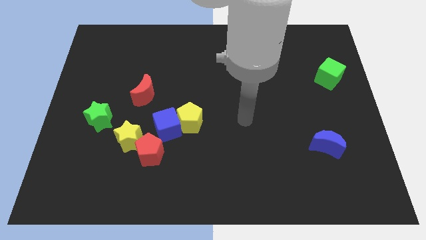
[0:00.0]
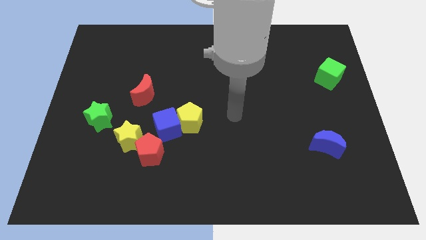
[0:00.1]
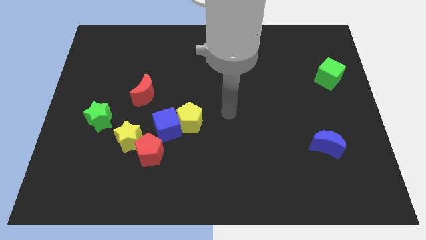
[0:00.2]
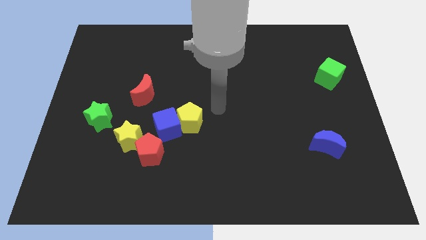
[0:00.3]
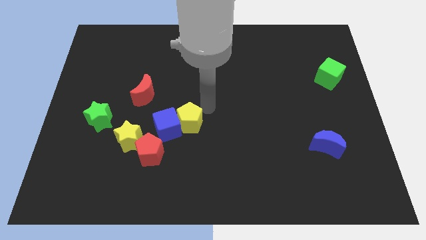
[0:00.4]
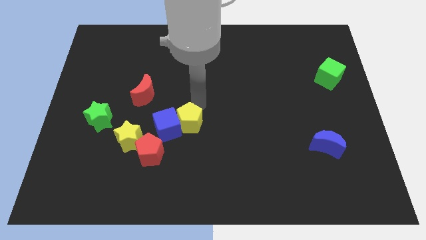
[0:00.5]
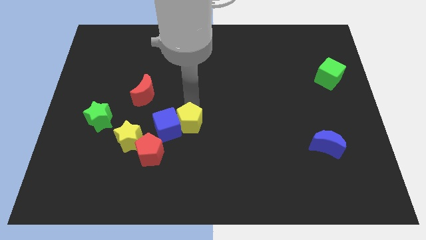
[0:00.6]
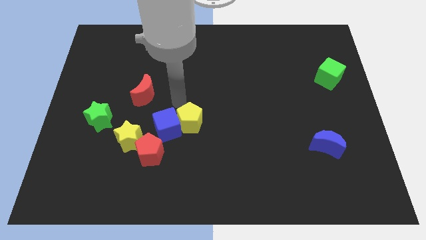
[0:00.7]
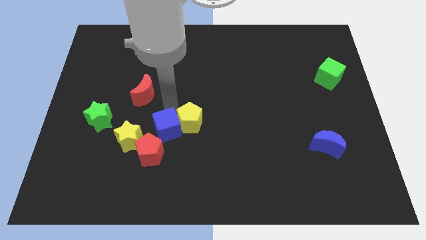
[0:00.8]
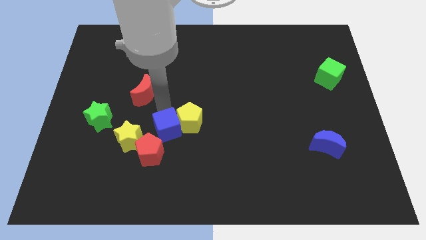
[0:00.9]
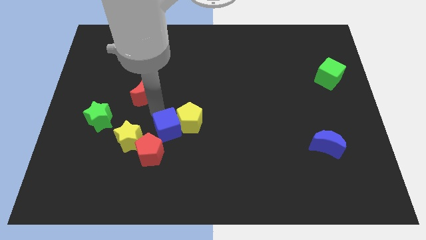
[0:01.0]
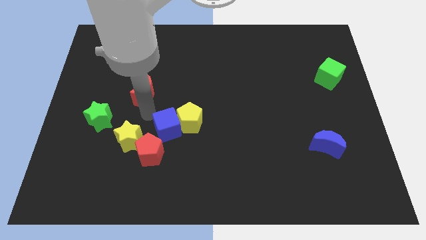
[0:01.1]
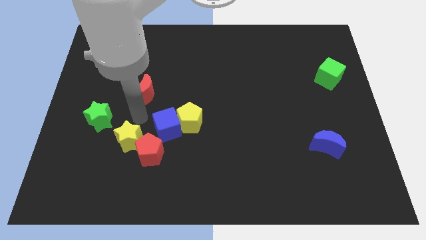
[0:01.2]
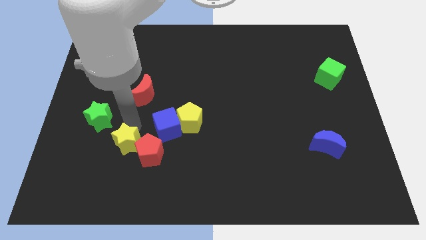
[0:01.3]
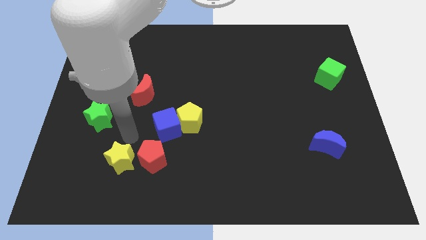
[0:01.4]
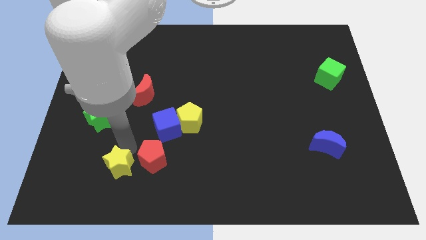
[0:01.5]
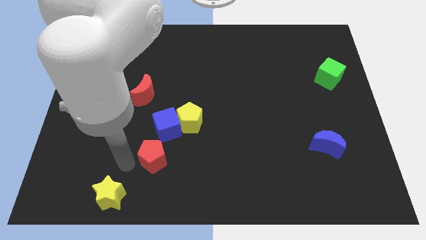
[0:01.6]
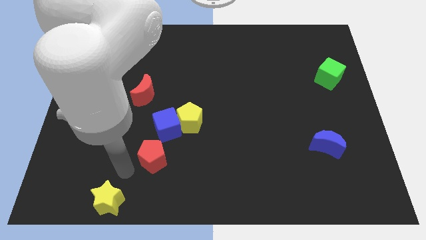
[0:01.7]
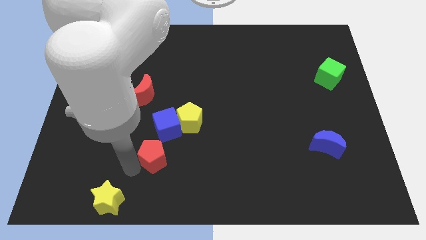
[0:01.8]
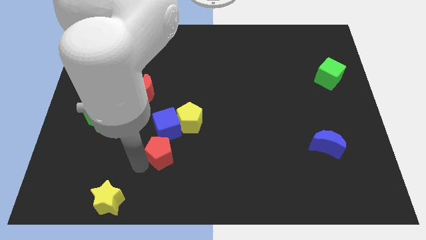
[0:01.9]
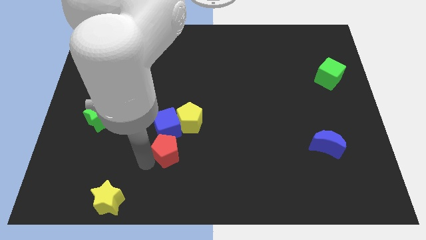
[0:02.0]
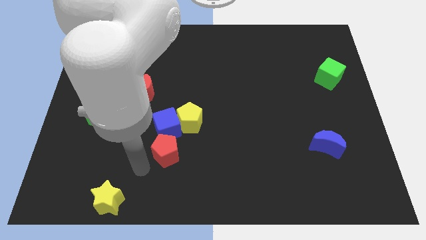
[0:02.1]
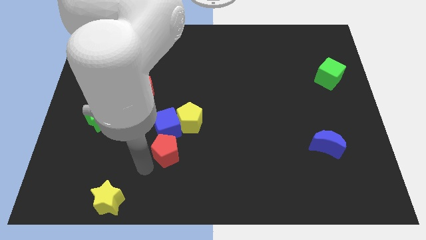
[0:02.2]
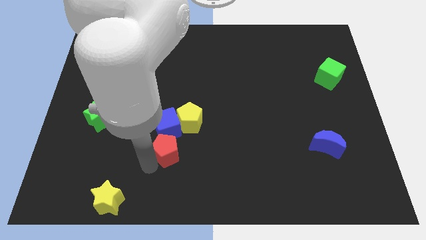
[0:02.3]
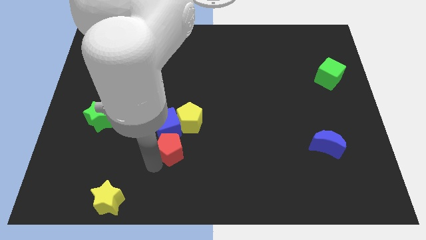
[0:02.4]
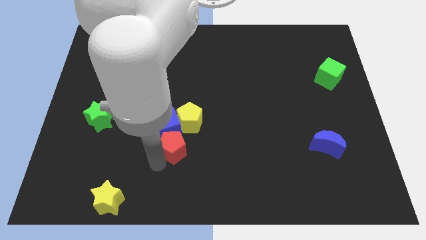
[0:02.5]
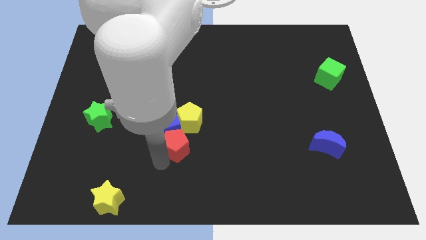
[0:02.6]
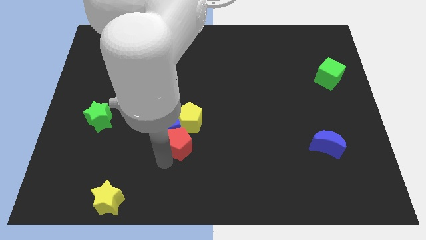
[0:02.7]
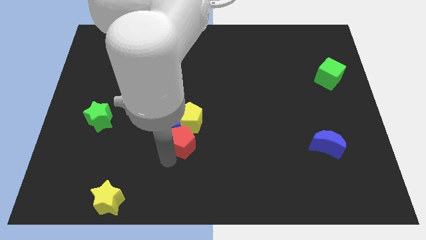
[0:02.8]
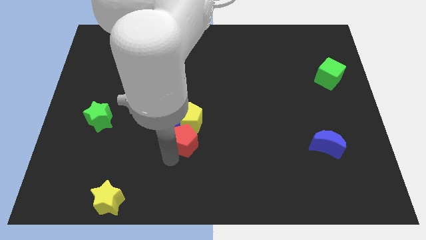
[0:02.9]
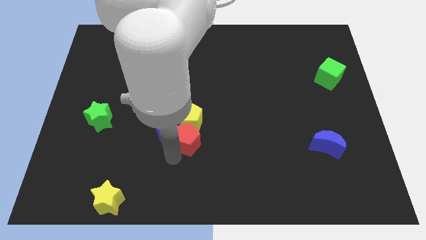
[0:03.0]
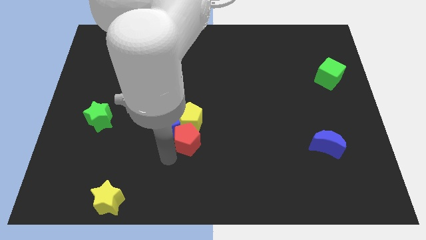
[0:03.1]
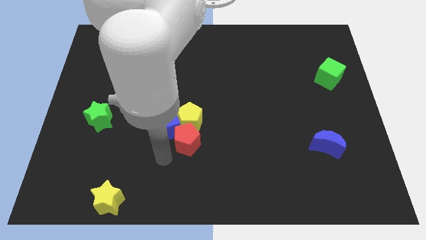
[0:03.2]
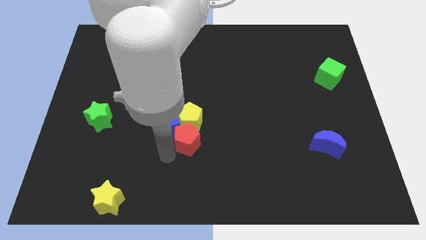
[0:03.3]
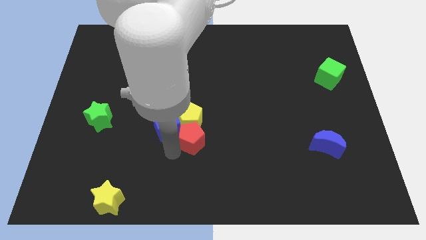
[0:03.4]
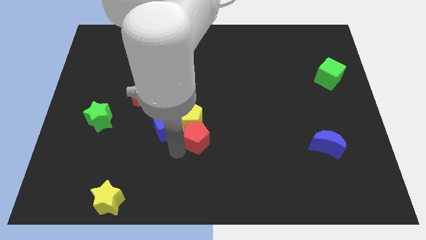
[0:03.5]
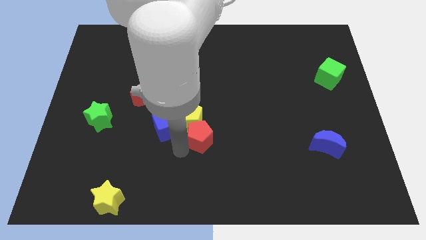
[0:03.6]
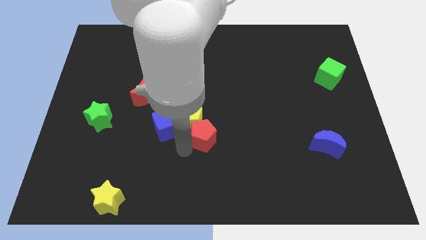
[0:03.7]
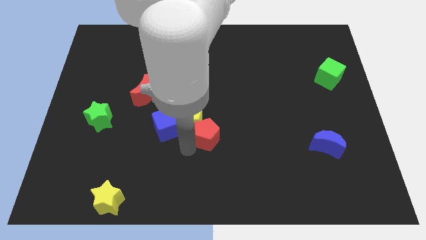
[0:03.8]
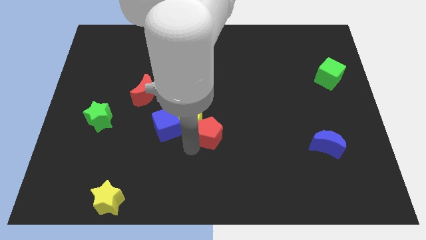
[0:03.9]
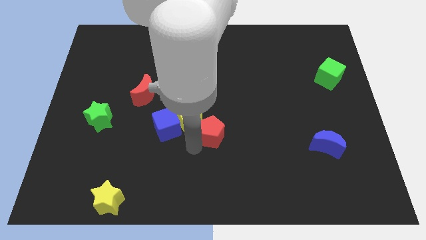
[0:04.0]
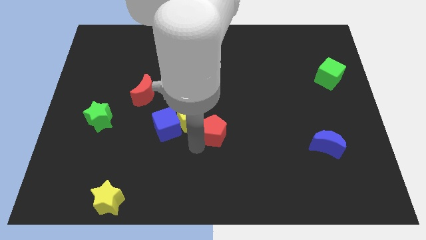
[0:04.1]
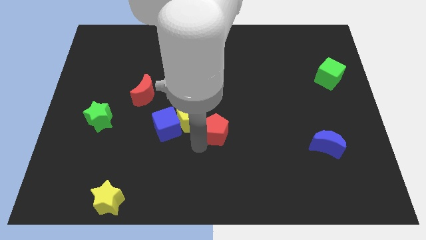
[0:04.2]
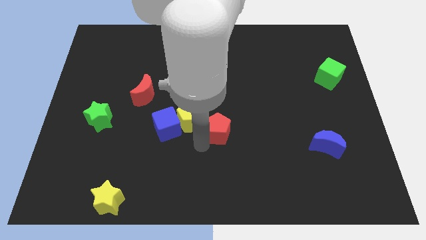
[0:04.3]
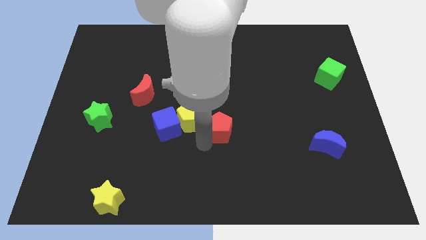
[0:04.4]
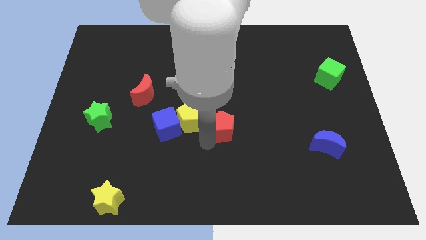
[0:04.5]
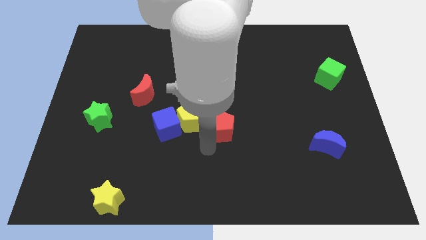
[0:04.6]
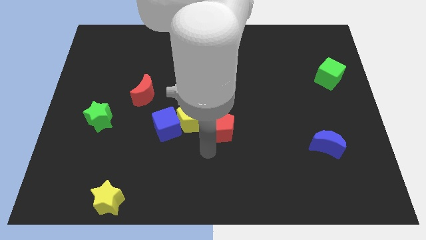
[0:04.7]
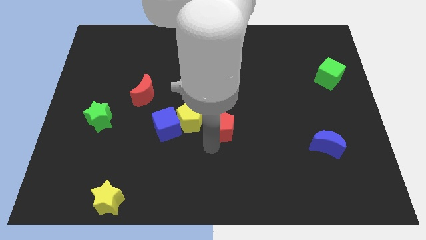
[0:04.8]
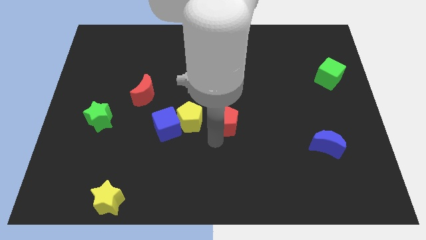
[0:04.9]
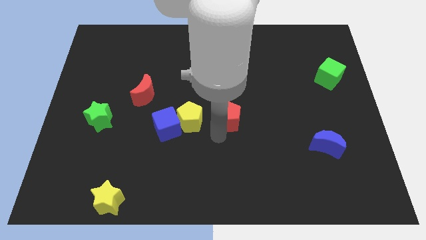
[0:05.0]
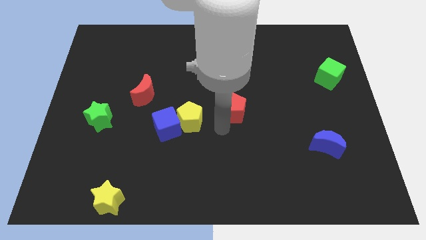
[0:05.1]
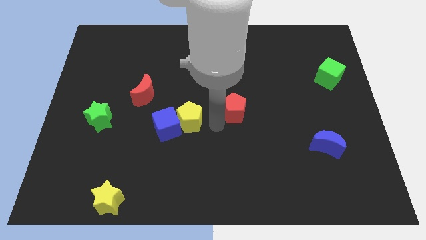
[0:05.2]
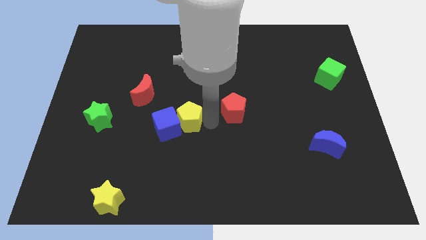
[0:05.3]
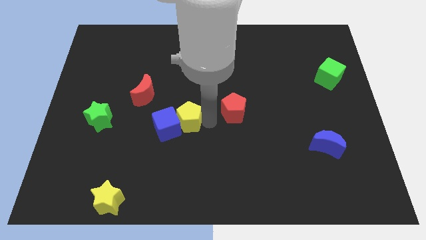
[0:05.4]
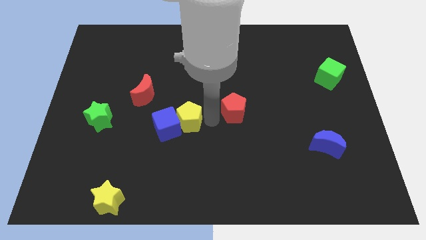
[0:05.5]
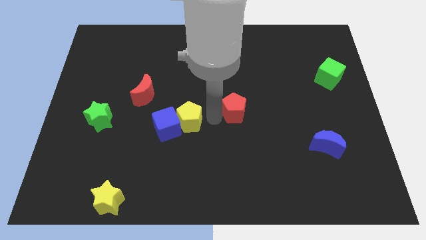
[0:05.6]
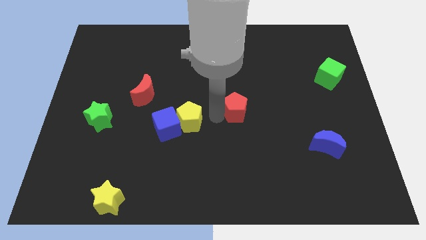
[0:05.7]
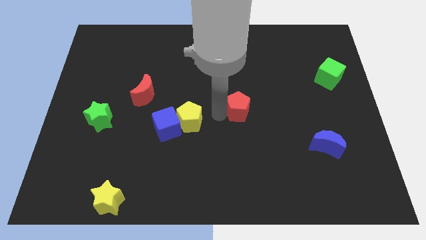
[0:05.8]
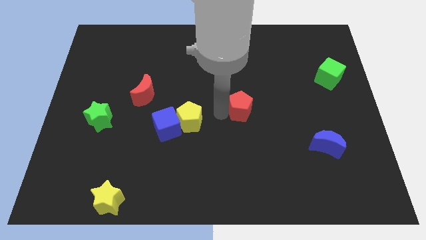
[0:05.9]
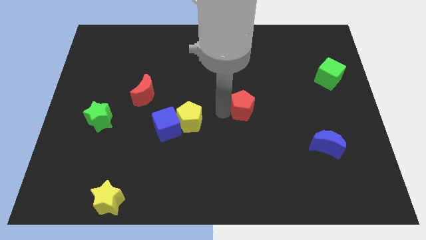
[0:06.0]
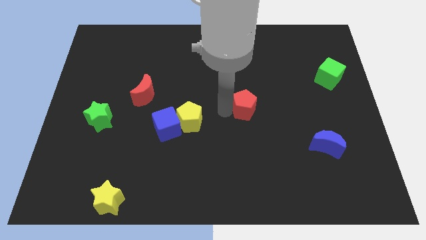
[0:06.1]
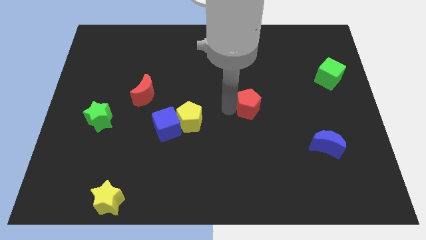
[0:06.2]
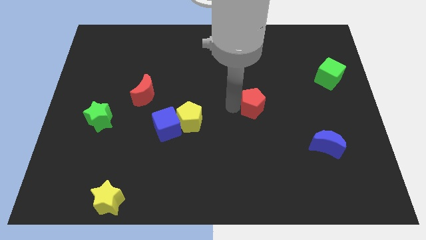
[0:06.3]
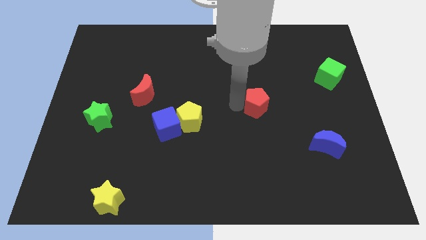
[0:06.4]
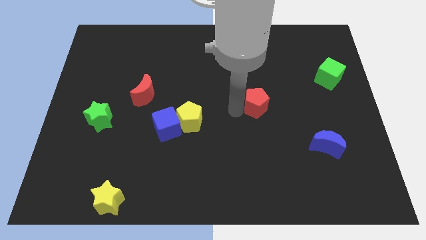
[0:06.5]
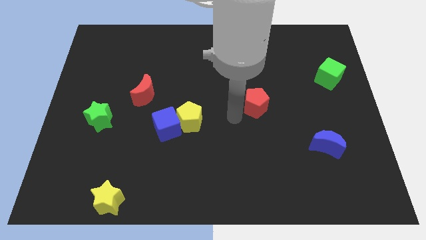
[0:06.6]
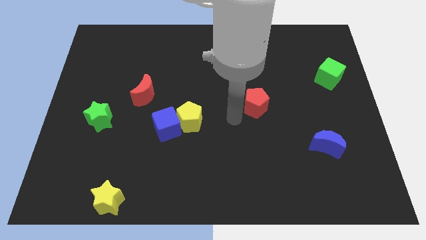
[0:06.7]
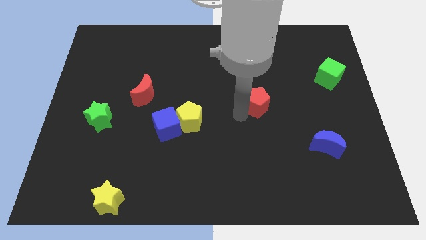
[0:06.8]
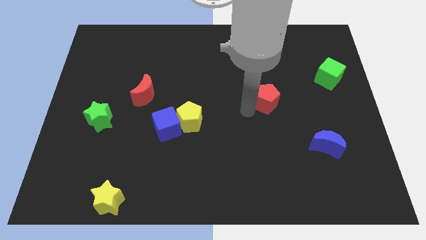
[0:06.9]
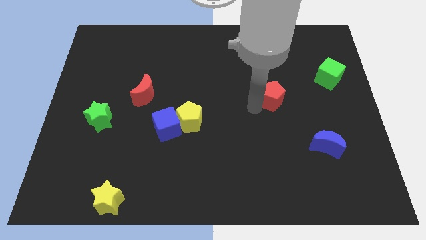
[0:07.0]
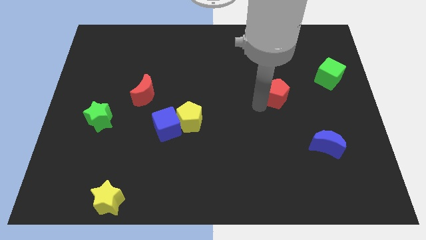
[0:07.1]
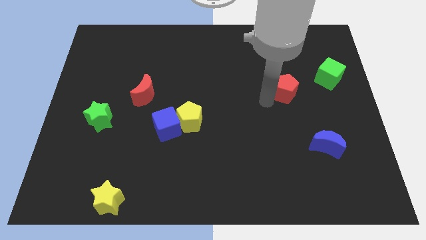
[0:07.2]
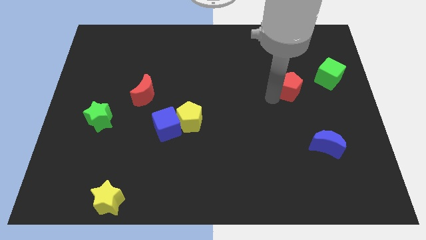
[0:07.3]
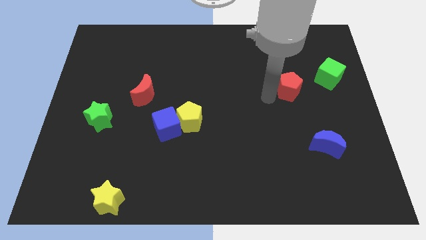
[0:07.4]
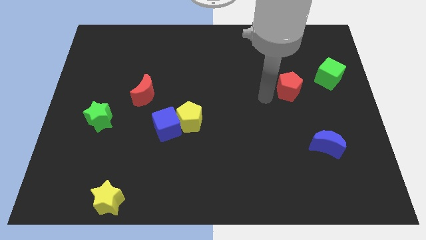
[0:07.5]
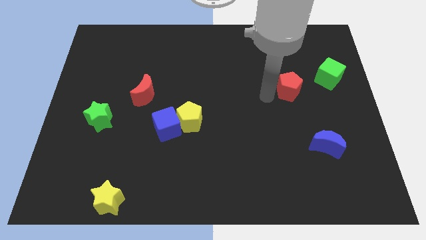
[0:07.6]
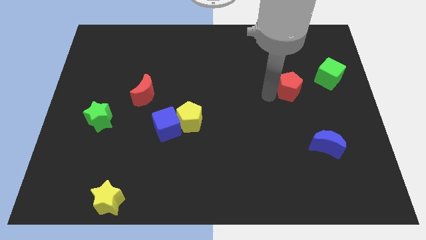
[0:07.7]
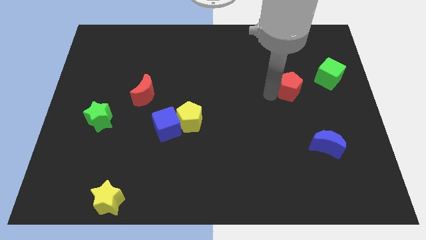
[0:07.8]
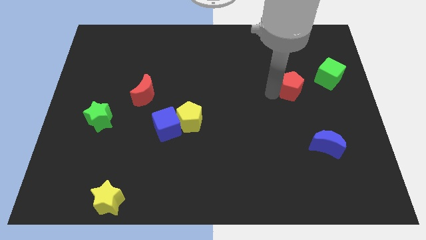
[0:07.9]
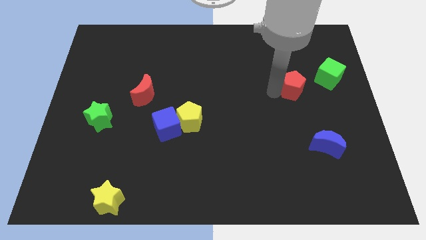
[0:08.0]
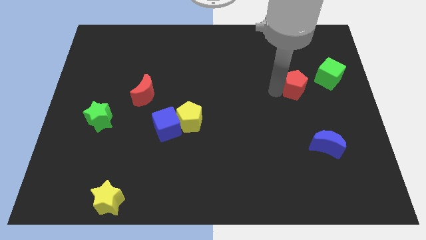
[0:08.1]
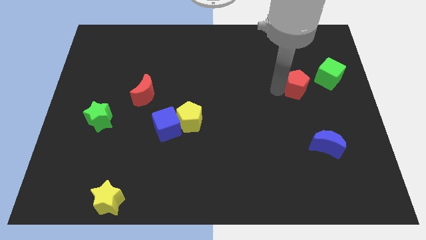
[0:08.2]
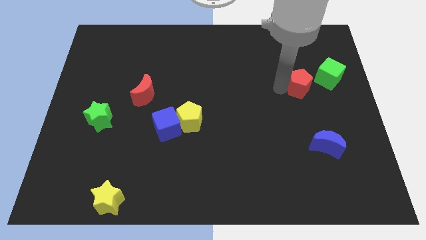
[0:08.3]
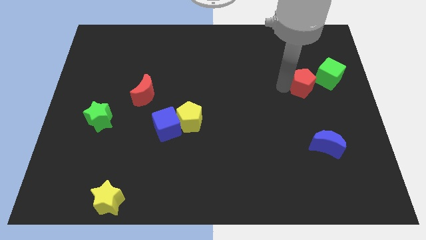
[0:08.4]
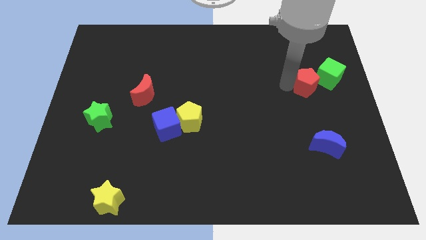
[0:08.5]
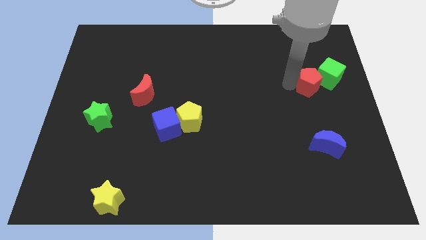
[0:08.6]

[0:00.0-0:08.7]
slide the red pentagon to the green cube
